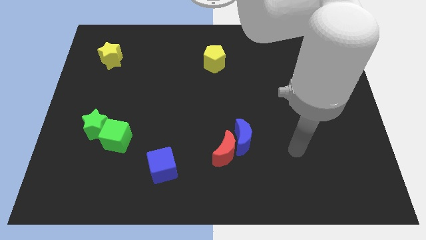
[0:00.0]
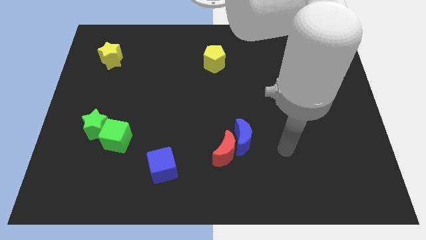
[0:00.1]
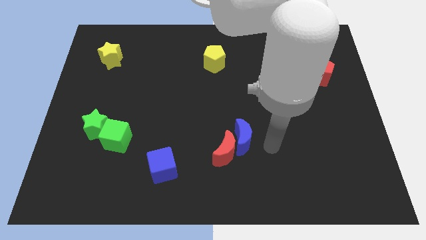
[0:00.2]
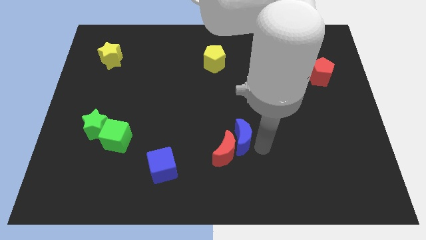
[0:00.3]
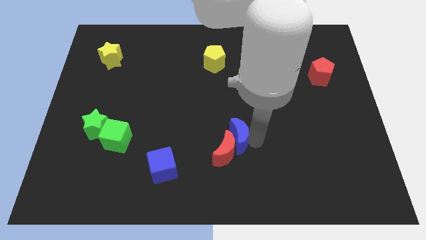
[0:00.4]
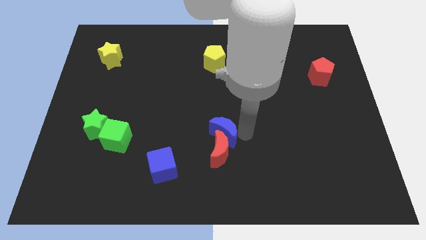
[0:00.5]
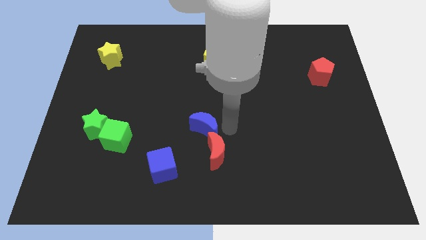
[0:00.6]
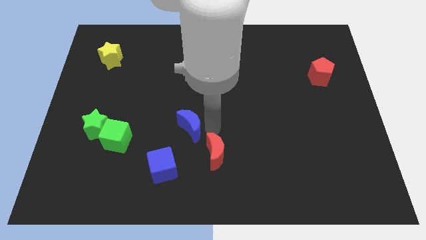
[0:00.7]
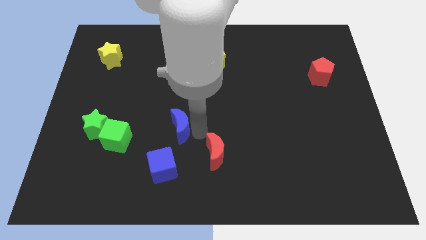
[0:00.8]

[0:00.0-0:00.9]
pull the red moon apart from the blue moon

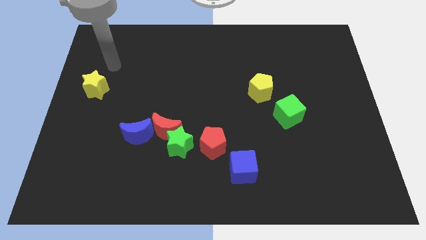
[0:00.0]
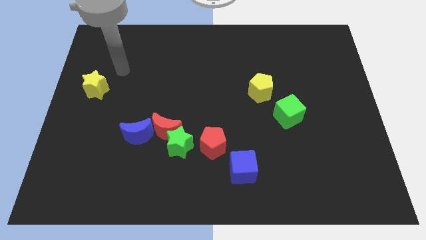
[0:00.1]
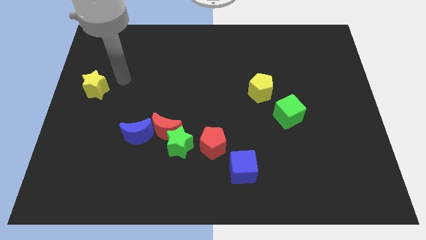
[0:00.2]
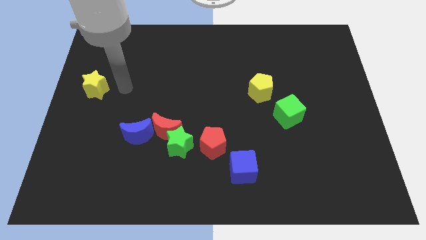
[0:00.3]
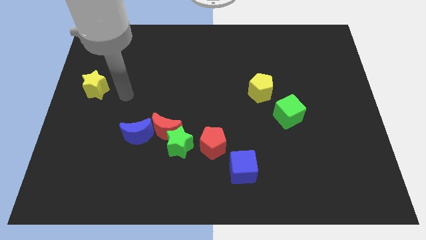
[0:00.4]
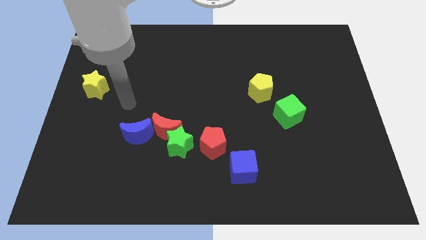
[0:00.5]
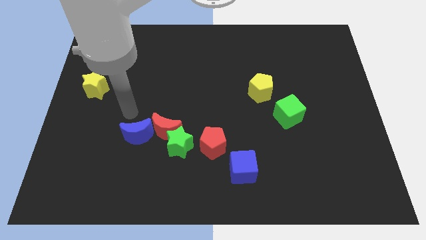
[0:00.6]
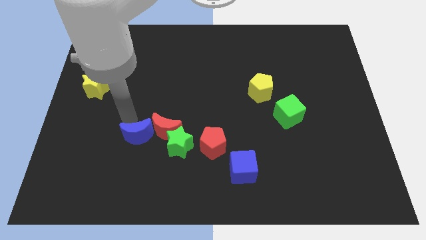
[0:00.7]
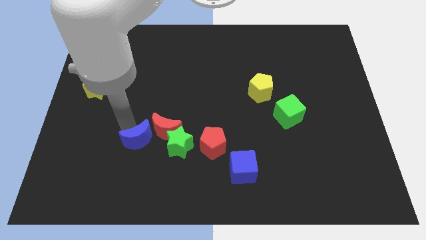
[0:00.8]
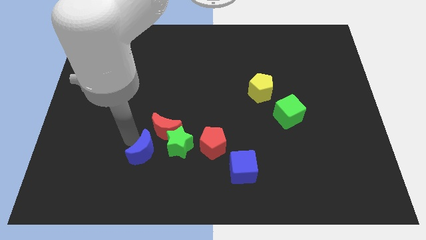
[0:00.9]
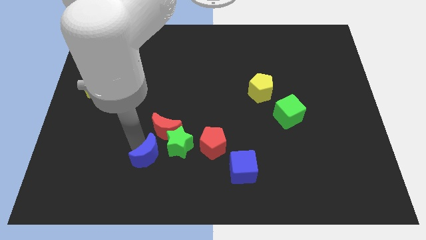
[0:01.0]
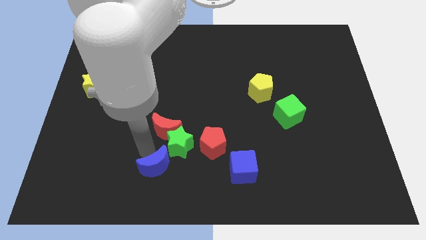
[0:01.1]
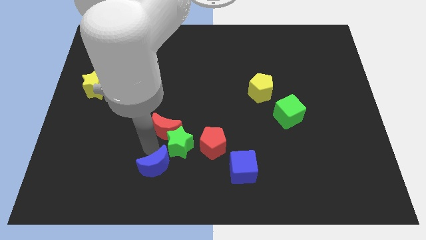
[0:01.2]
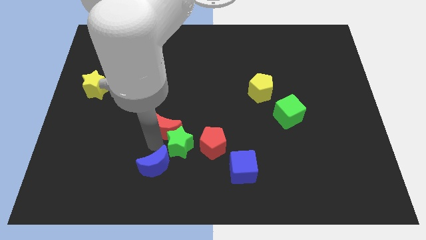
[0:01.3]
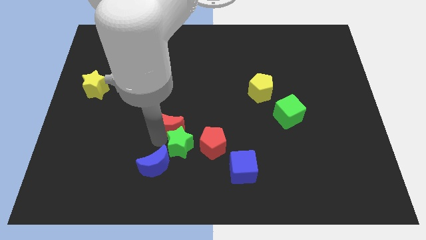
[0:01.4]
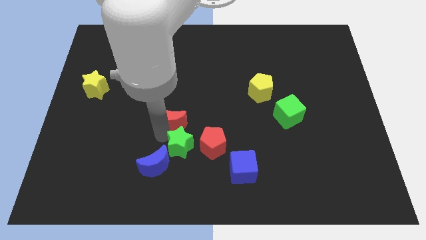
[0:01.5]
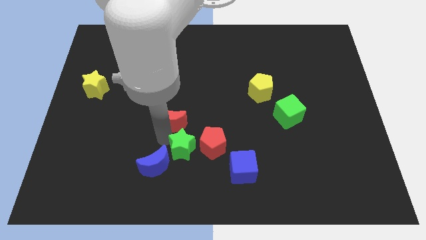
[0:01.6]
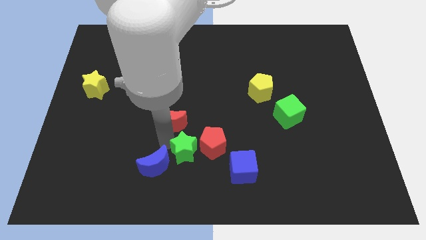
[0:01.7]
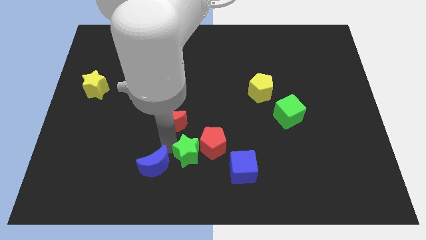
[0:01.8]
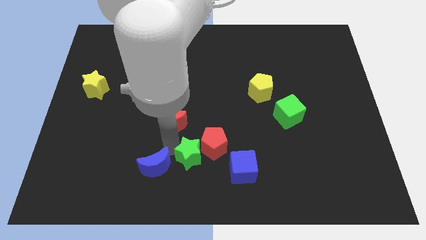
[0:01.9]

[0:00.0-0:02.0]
separate the red moon from the green star and blue moon

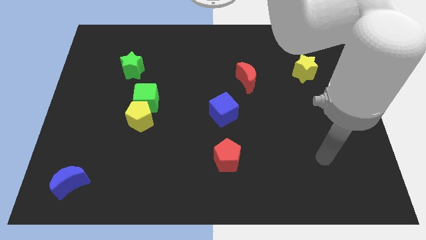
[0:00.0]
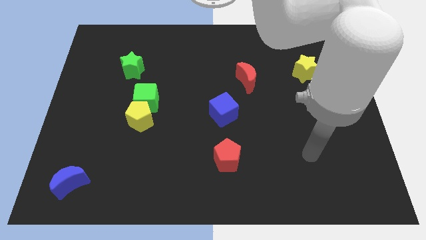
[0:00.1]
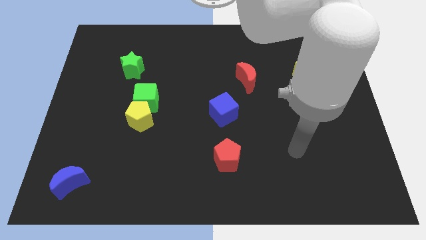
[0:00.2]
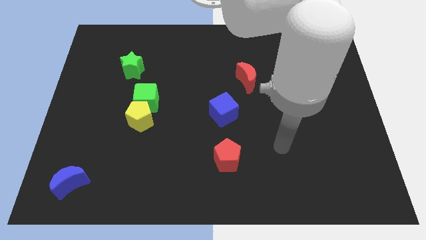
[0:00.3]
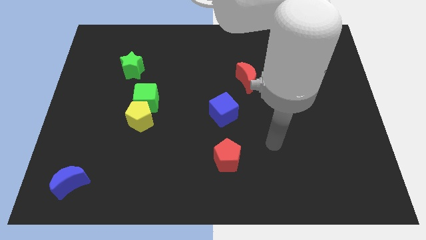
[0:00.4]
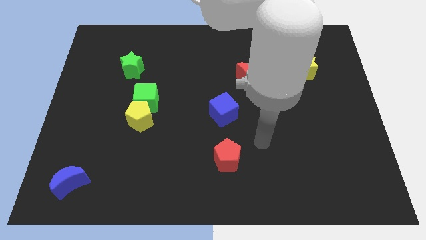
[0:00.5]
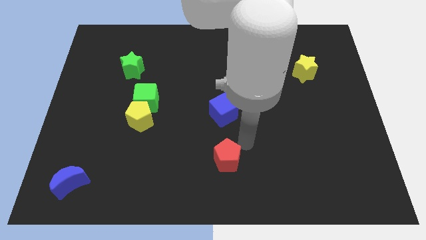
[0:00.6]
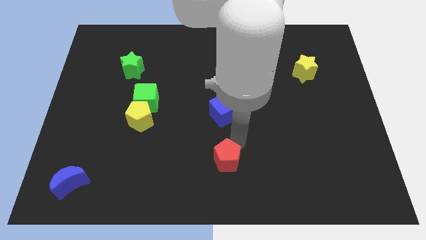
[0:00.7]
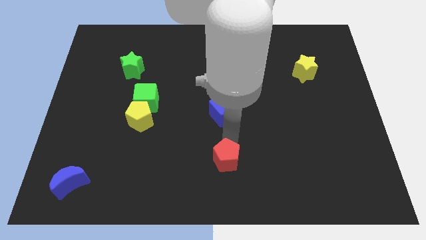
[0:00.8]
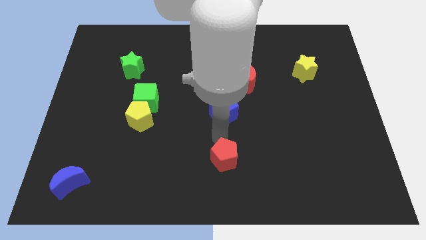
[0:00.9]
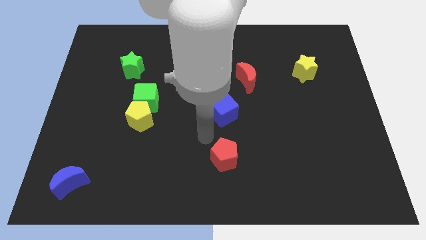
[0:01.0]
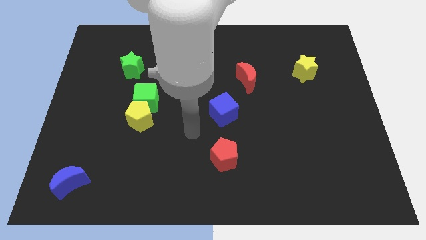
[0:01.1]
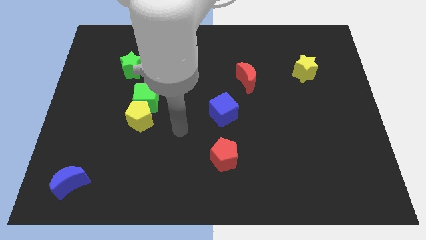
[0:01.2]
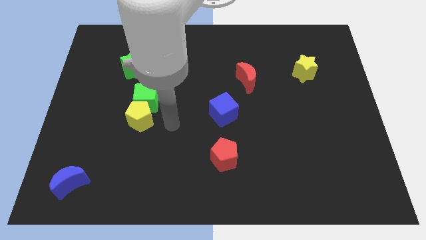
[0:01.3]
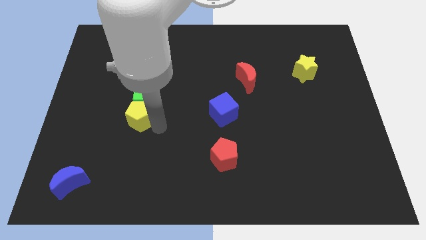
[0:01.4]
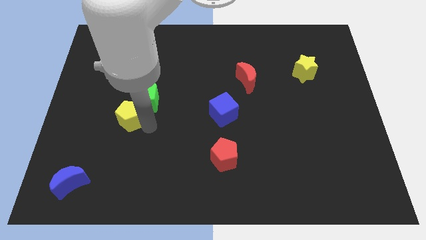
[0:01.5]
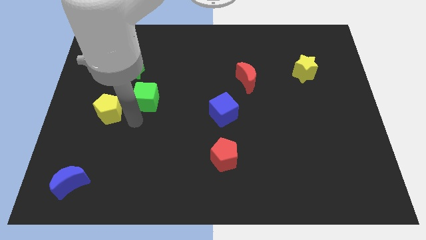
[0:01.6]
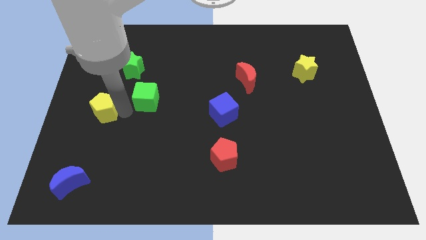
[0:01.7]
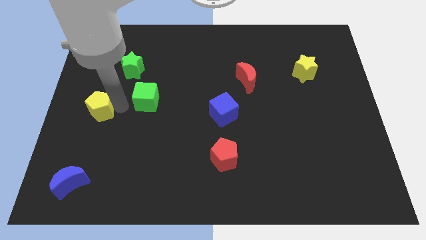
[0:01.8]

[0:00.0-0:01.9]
separate the green cube from the yellow pentagon

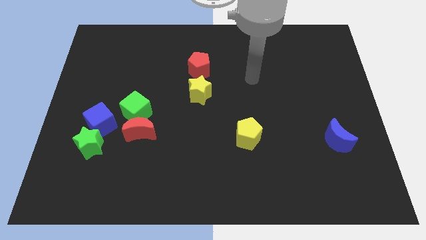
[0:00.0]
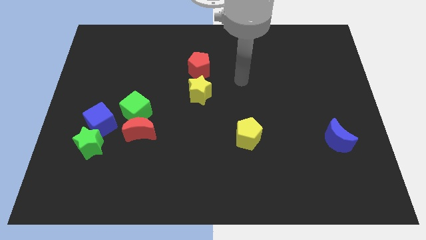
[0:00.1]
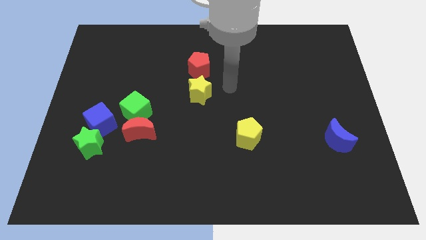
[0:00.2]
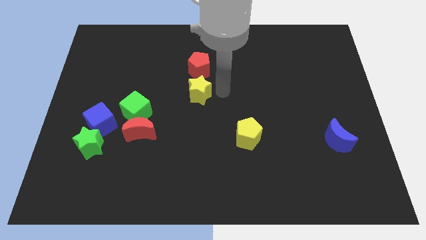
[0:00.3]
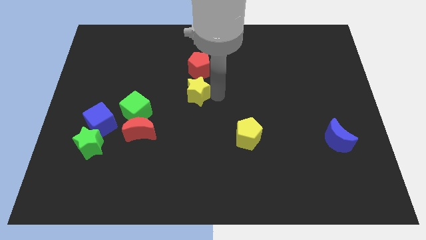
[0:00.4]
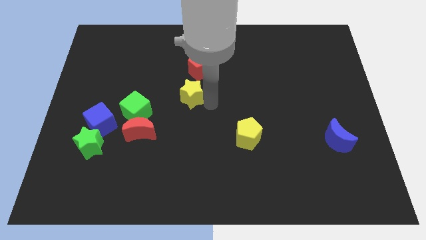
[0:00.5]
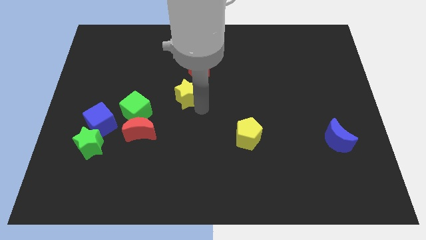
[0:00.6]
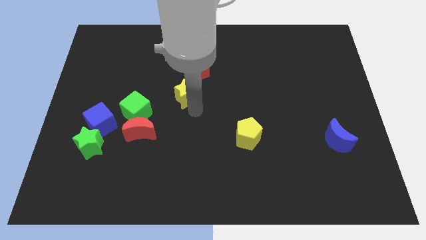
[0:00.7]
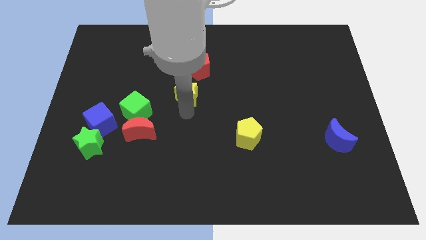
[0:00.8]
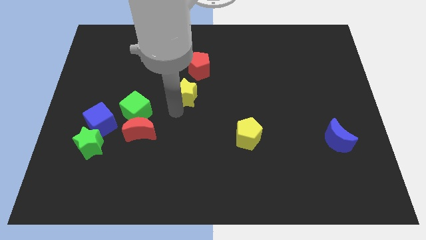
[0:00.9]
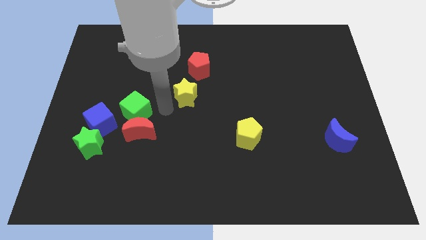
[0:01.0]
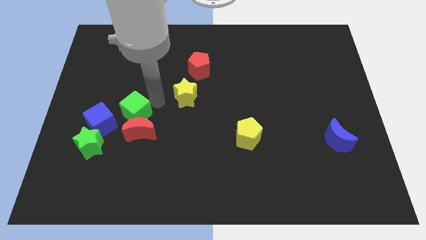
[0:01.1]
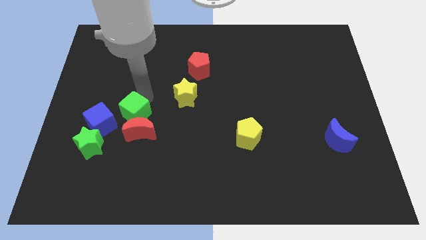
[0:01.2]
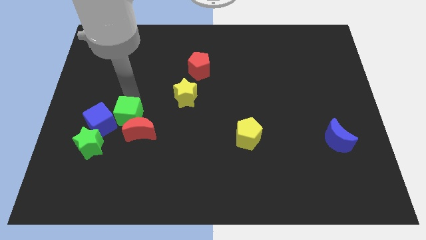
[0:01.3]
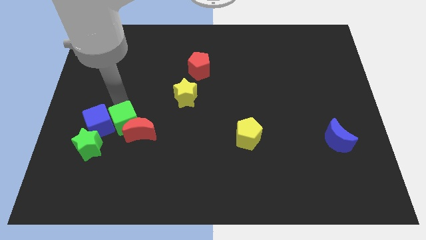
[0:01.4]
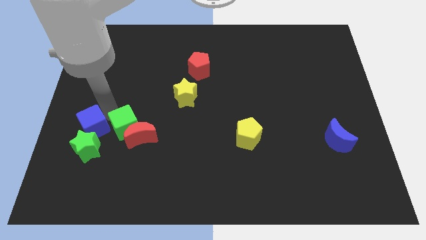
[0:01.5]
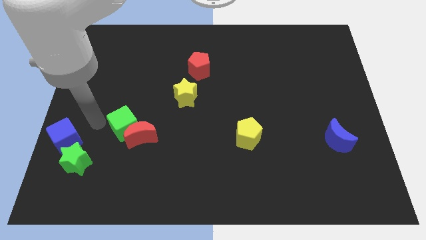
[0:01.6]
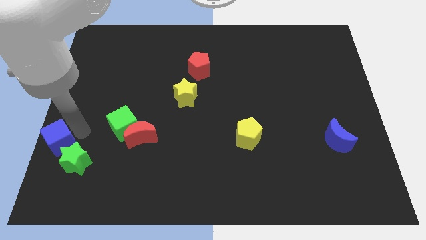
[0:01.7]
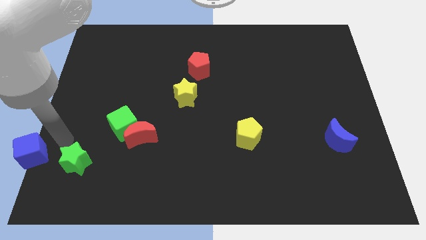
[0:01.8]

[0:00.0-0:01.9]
move the green star away from the blue cube

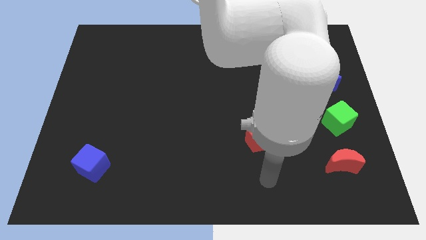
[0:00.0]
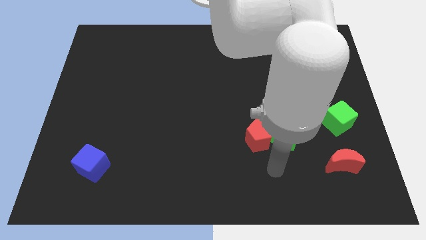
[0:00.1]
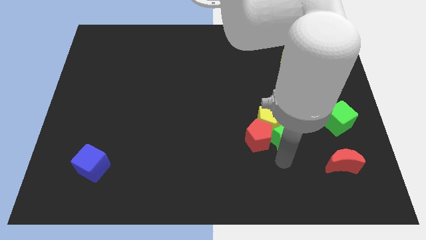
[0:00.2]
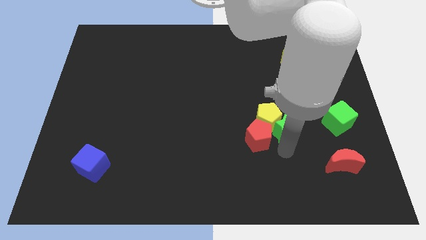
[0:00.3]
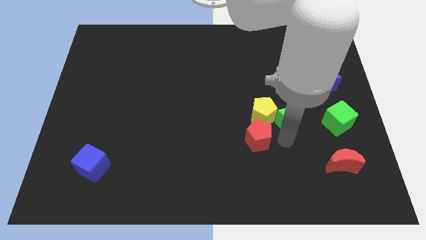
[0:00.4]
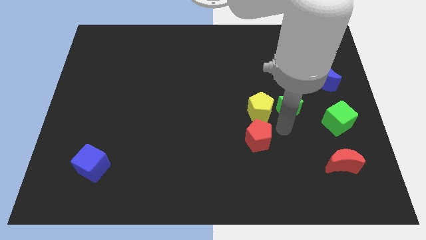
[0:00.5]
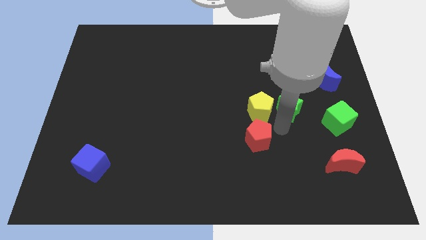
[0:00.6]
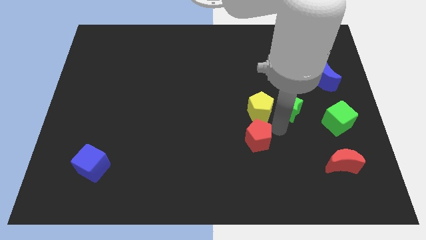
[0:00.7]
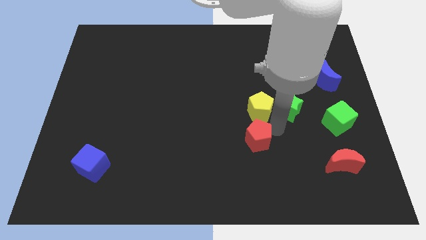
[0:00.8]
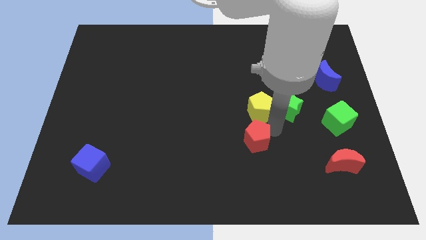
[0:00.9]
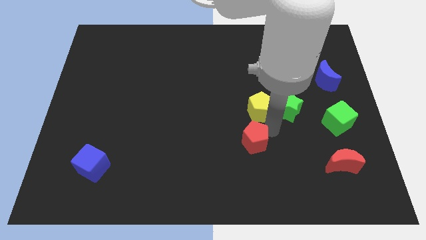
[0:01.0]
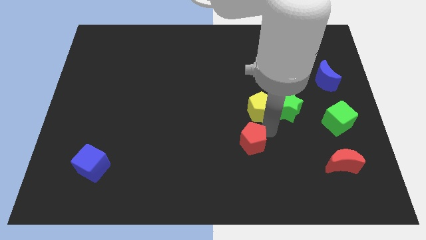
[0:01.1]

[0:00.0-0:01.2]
separate the red pentagon from the green star and yellow pentagon

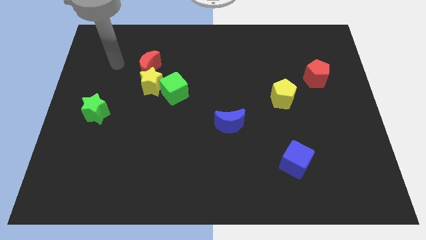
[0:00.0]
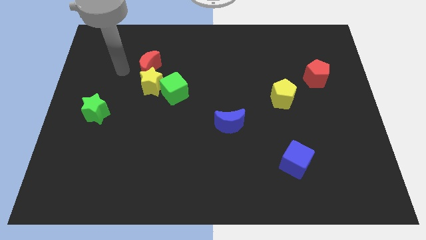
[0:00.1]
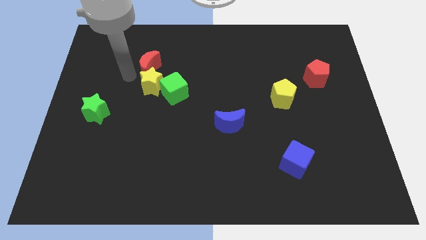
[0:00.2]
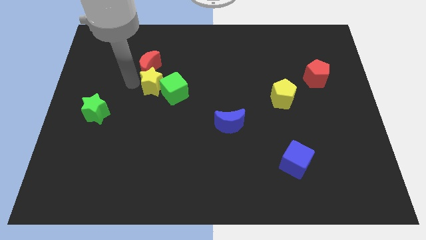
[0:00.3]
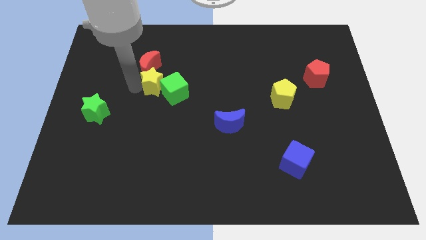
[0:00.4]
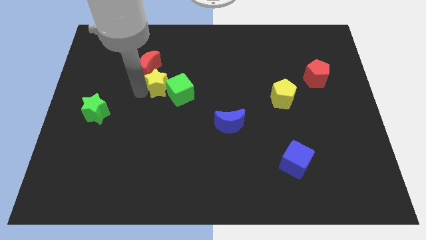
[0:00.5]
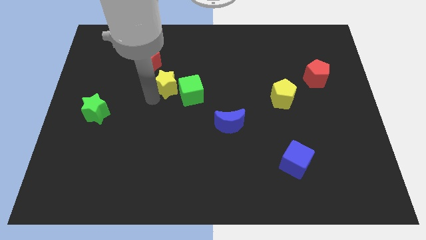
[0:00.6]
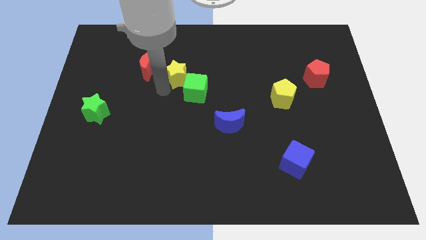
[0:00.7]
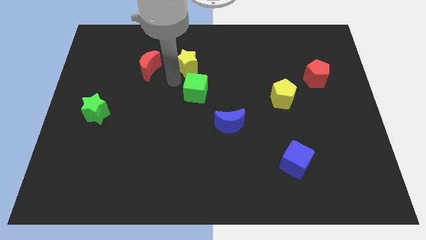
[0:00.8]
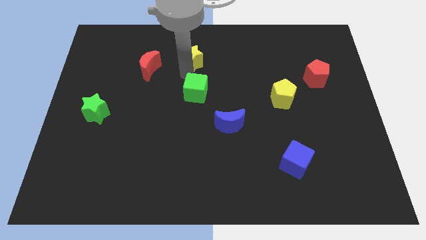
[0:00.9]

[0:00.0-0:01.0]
move the green cube away from the yellow star

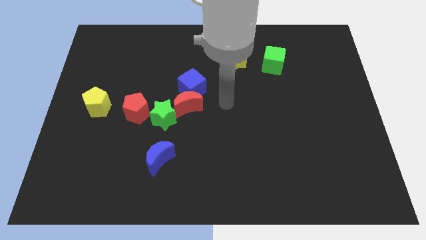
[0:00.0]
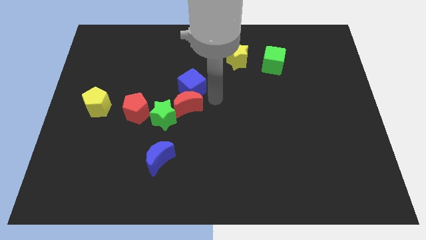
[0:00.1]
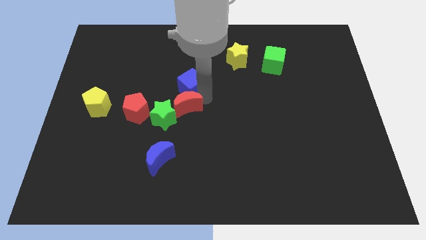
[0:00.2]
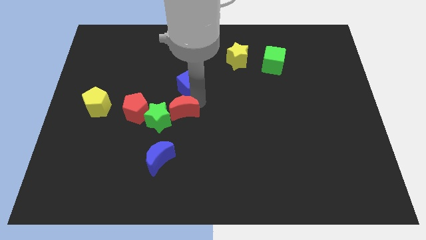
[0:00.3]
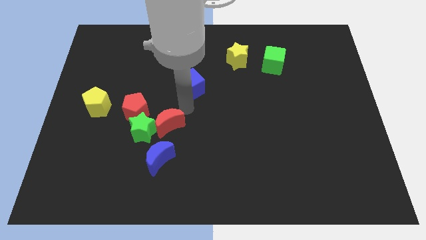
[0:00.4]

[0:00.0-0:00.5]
separate the blue cube from the red moon
